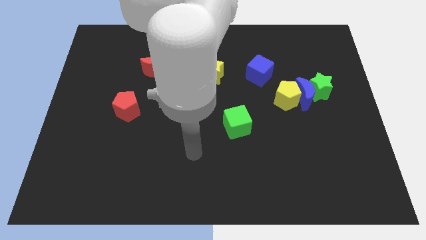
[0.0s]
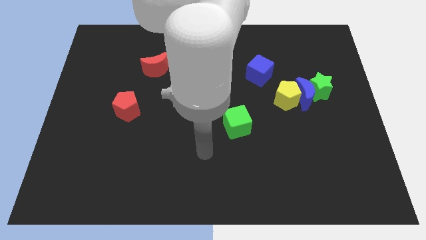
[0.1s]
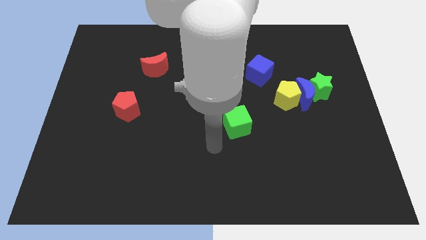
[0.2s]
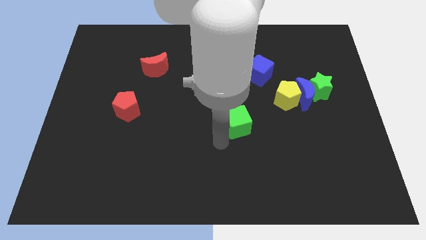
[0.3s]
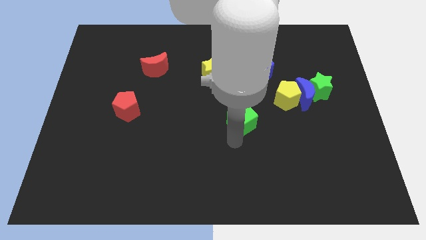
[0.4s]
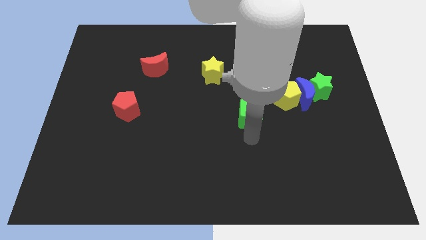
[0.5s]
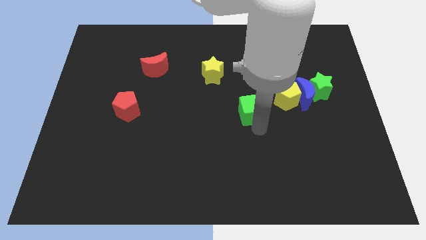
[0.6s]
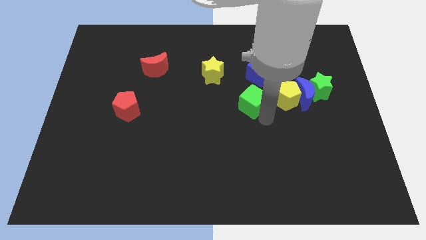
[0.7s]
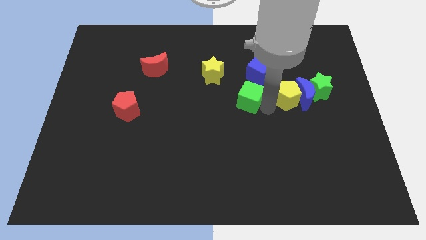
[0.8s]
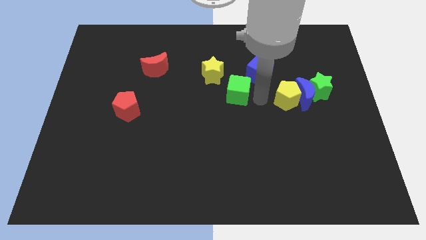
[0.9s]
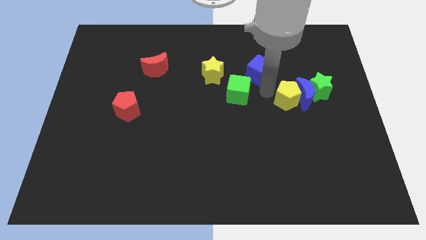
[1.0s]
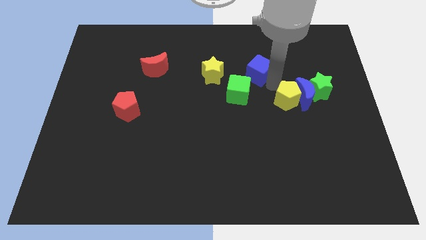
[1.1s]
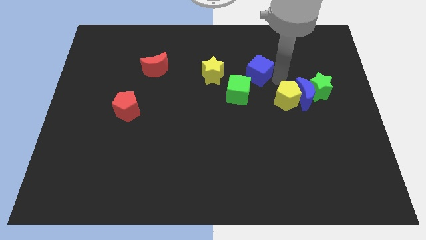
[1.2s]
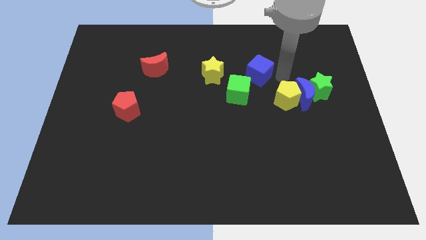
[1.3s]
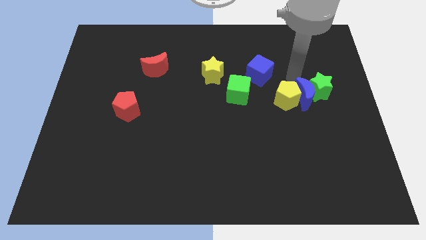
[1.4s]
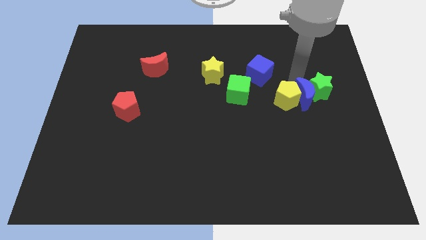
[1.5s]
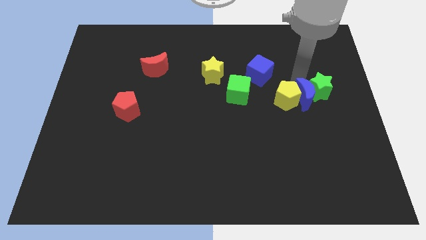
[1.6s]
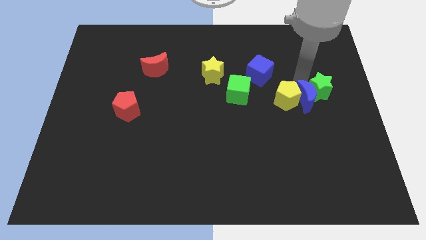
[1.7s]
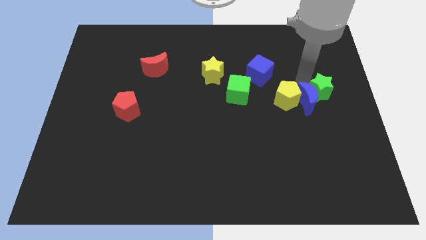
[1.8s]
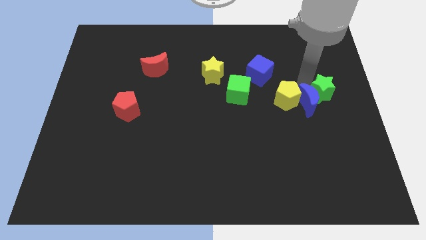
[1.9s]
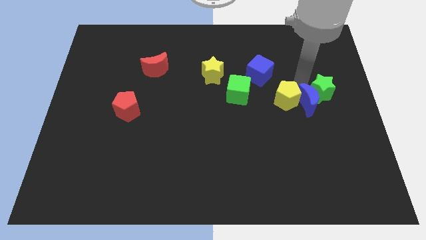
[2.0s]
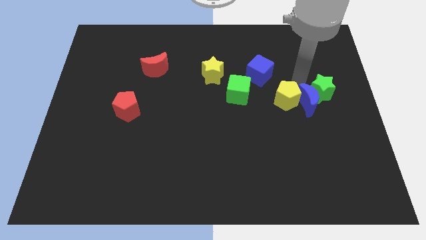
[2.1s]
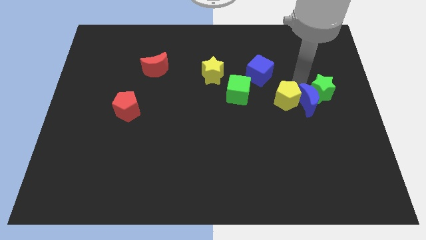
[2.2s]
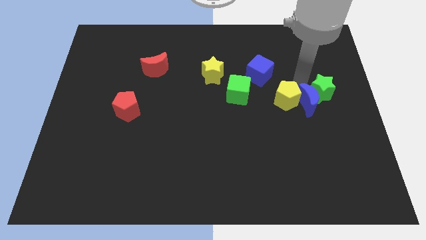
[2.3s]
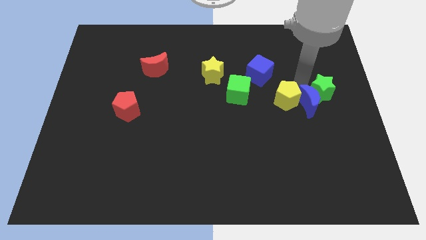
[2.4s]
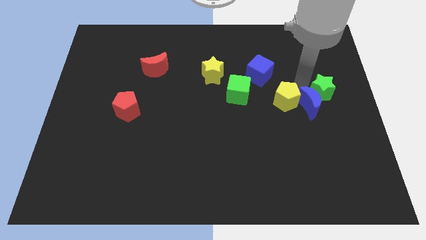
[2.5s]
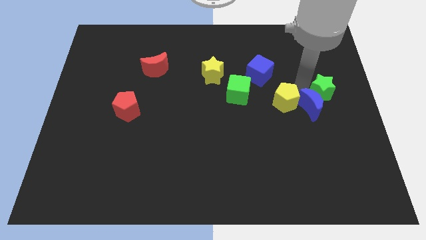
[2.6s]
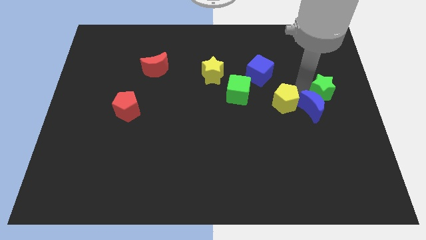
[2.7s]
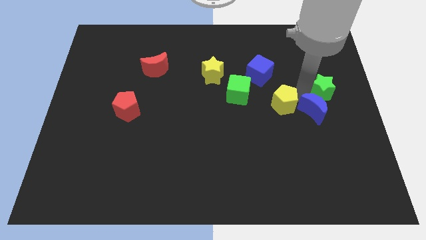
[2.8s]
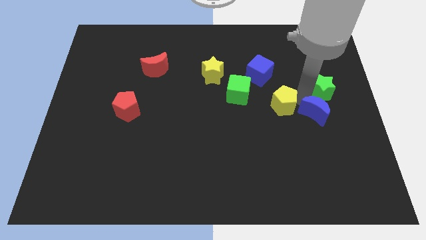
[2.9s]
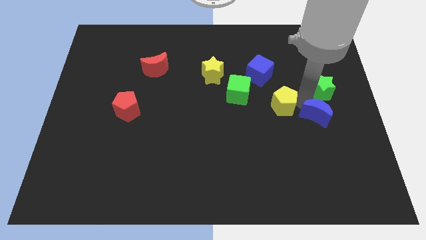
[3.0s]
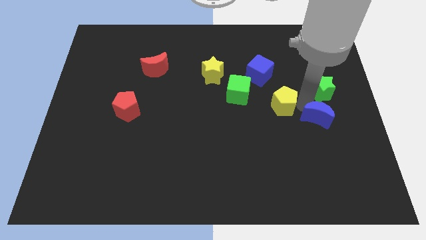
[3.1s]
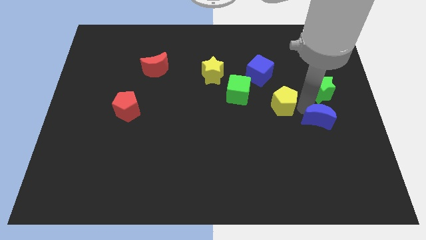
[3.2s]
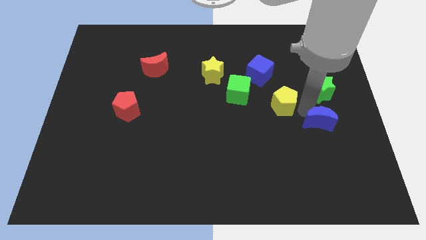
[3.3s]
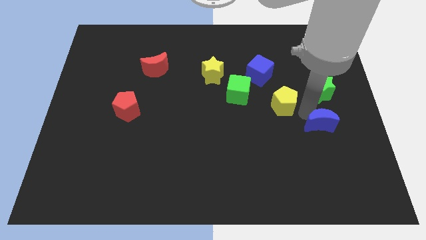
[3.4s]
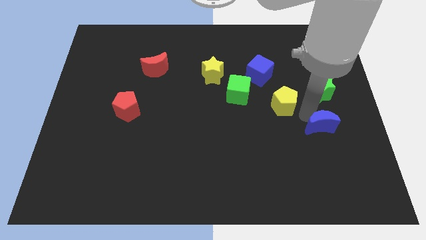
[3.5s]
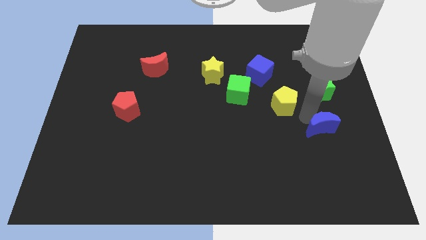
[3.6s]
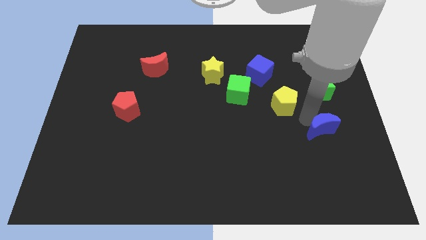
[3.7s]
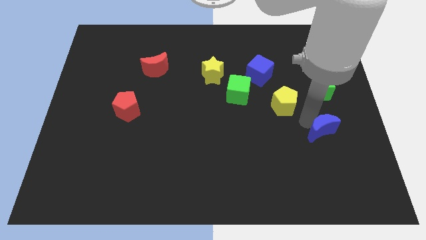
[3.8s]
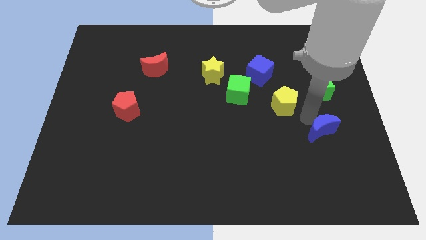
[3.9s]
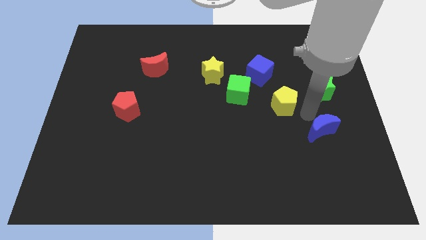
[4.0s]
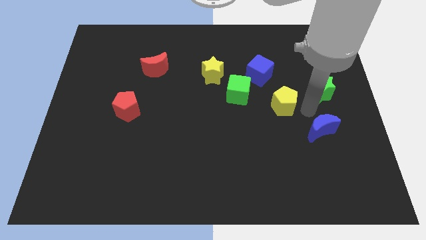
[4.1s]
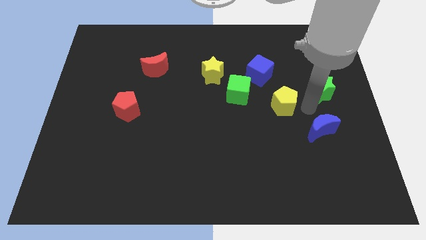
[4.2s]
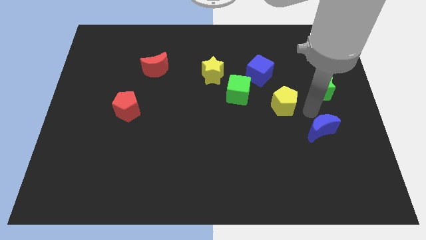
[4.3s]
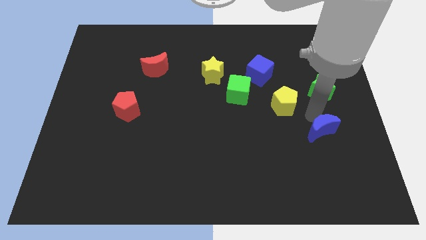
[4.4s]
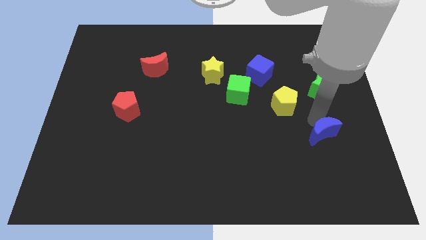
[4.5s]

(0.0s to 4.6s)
pull the blue moon apart from the green star and yellow pentagon

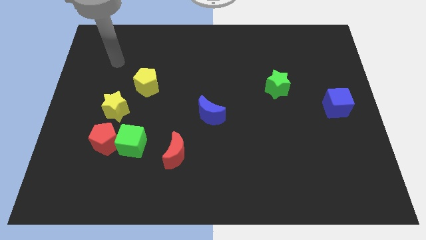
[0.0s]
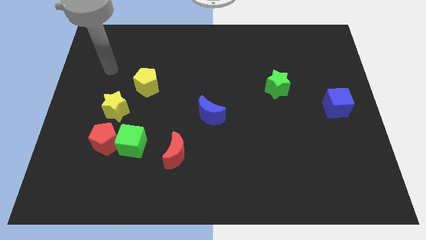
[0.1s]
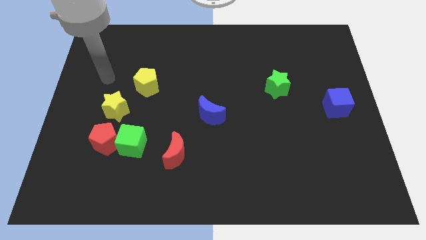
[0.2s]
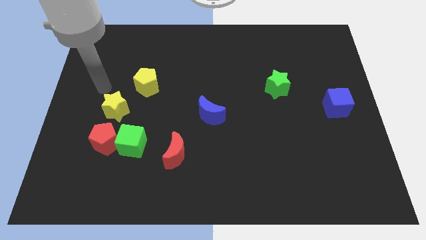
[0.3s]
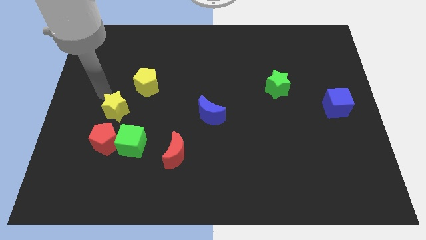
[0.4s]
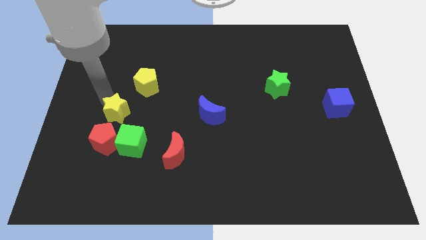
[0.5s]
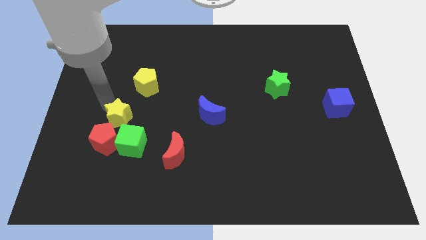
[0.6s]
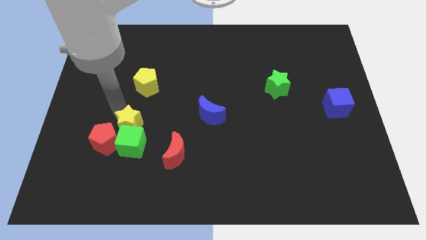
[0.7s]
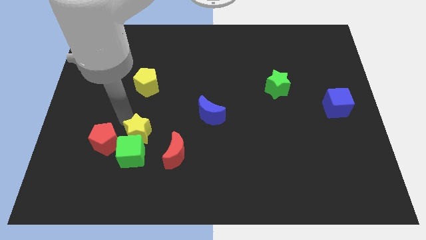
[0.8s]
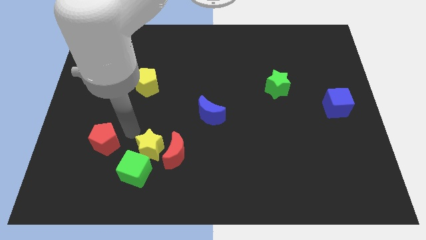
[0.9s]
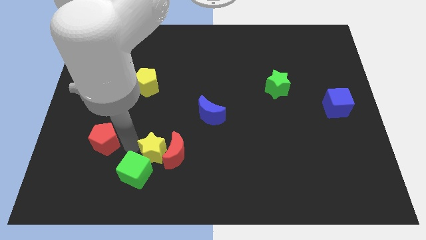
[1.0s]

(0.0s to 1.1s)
pull the red pentagon apart from the green cube and yellow star

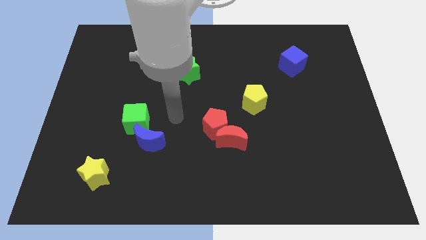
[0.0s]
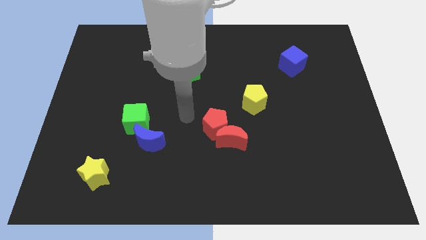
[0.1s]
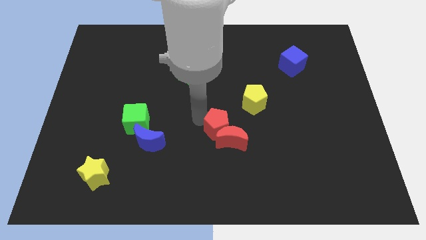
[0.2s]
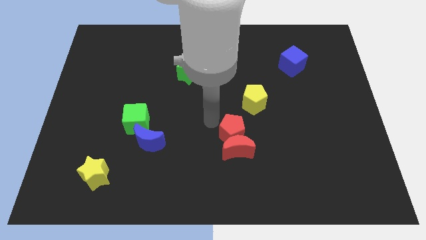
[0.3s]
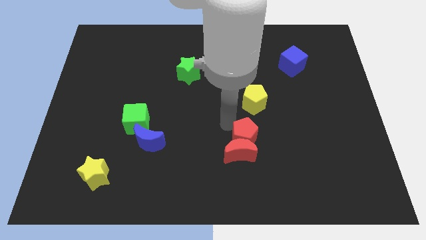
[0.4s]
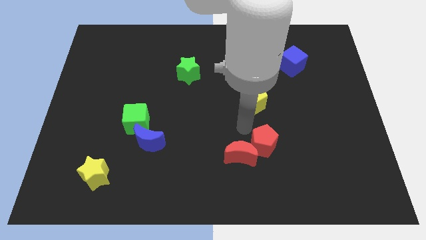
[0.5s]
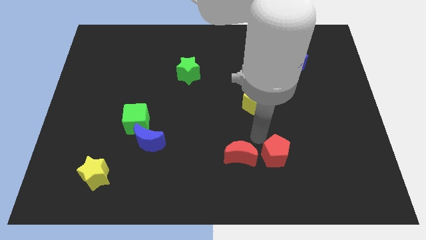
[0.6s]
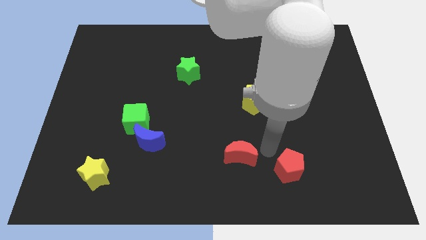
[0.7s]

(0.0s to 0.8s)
pull the red moon apart from the red pentagon

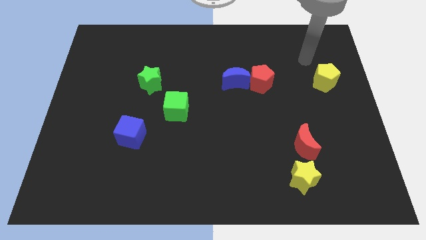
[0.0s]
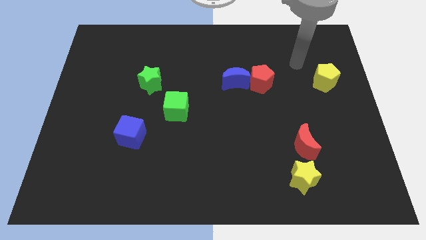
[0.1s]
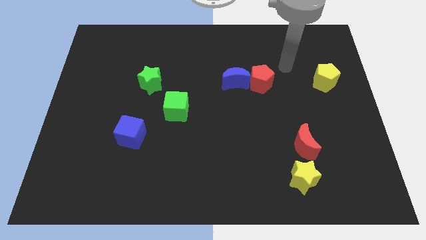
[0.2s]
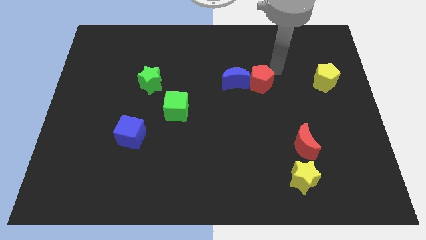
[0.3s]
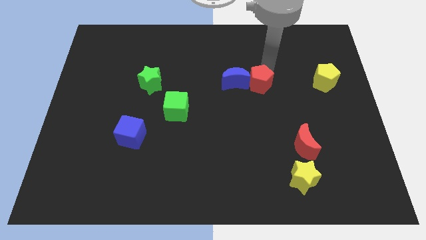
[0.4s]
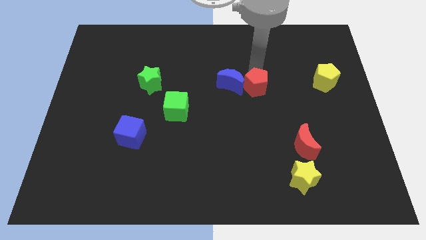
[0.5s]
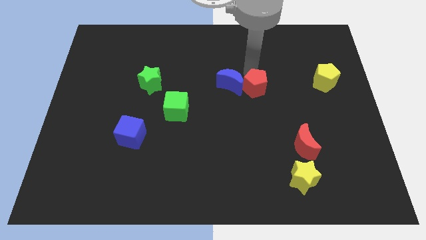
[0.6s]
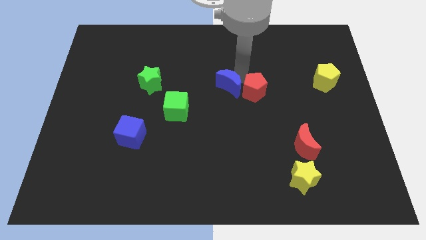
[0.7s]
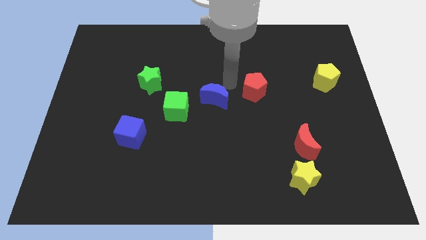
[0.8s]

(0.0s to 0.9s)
move the red pentagon away from the blue moon

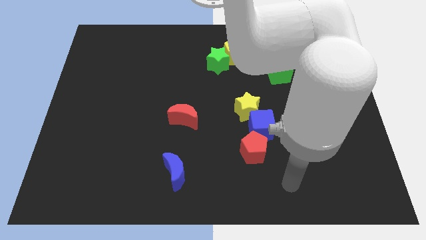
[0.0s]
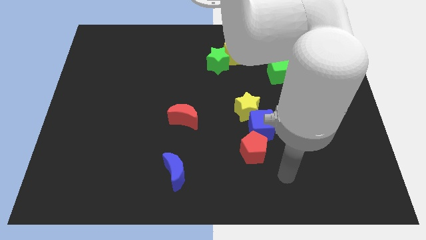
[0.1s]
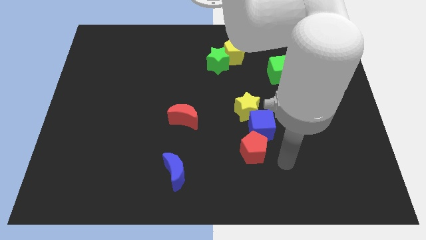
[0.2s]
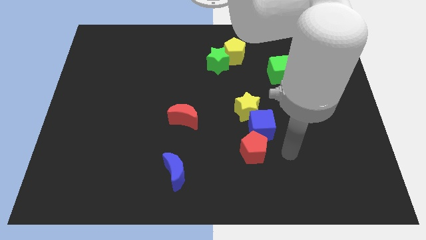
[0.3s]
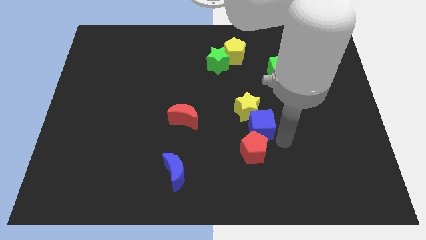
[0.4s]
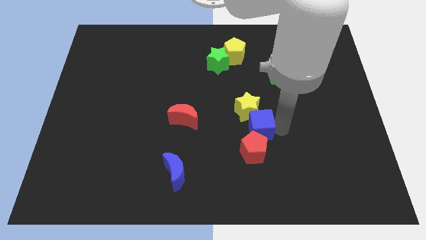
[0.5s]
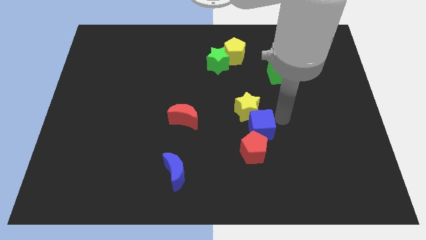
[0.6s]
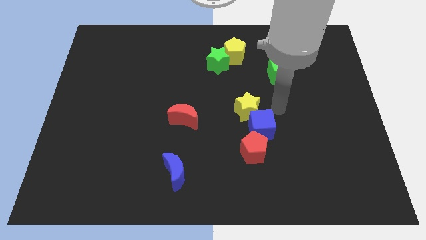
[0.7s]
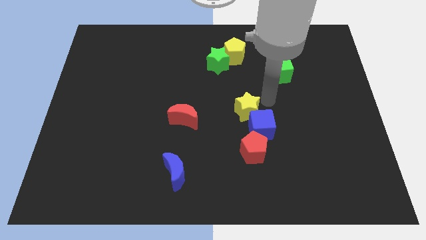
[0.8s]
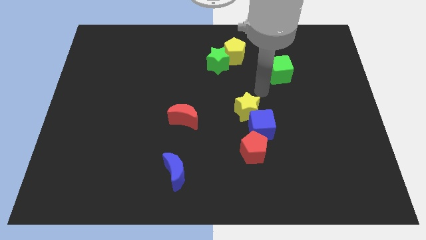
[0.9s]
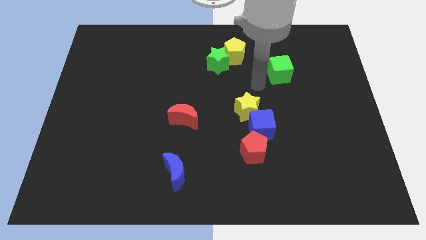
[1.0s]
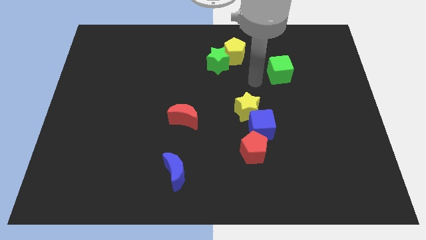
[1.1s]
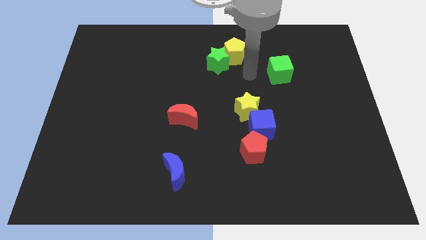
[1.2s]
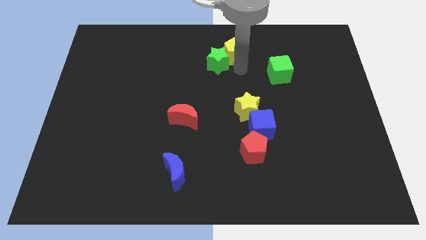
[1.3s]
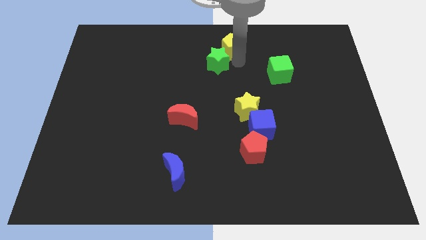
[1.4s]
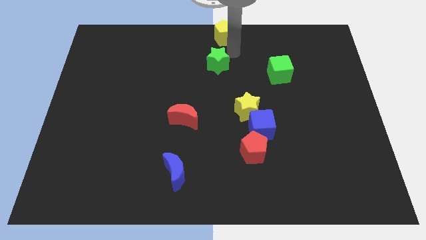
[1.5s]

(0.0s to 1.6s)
pull the green star apart from the yellow pentagon
